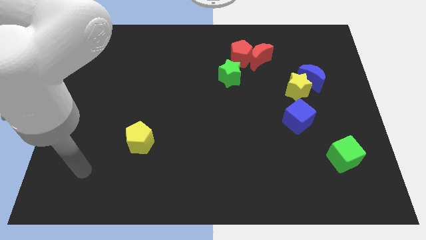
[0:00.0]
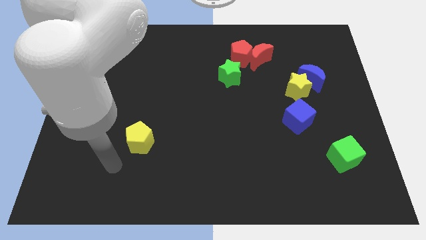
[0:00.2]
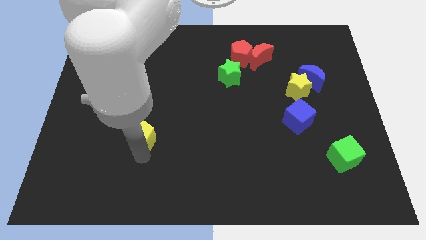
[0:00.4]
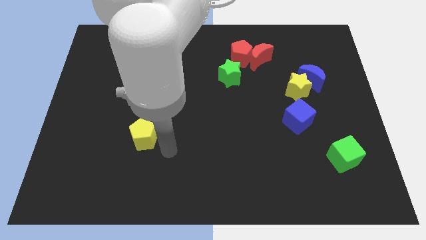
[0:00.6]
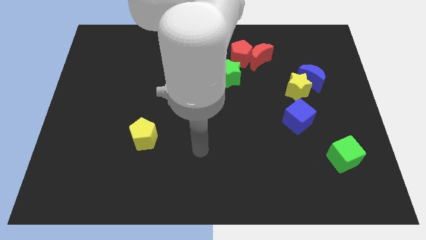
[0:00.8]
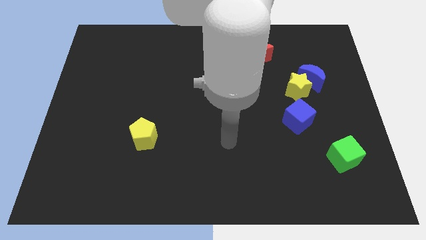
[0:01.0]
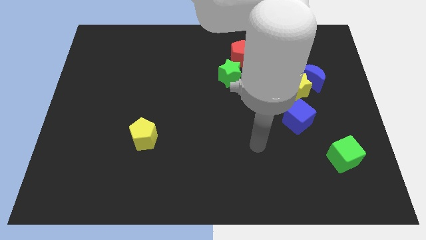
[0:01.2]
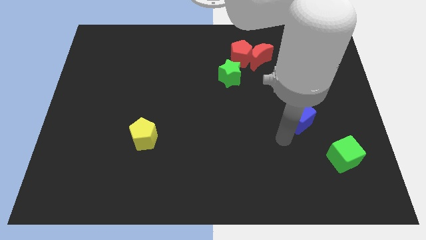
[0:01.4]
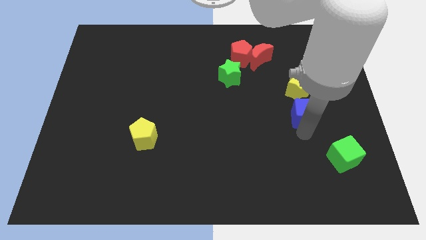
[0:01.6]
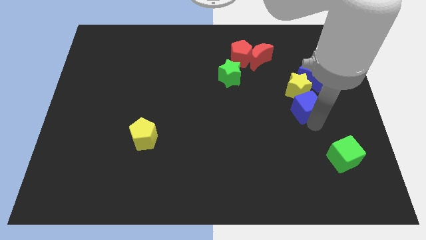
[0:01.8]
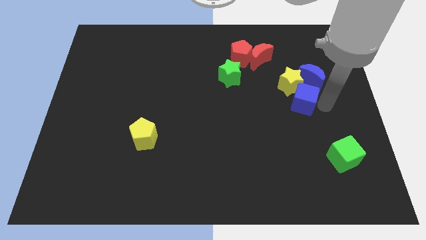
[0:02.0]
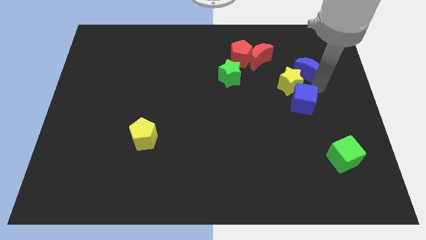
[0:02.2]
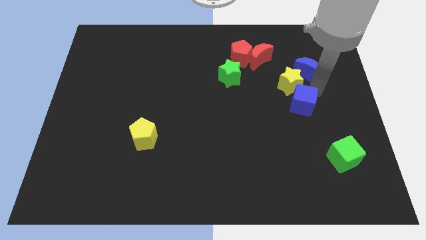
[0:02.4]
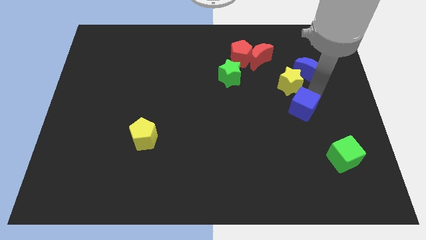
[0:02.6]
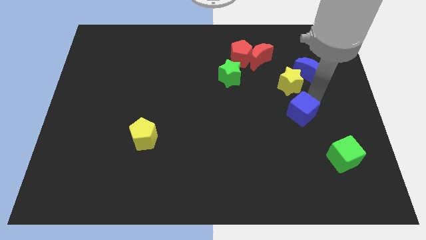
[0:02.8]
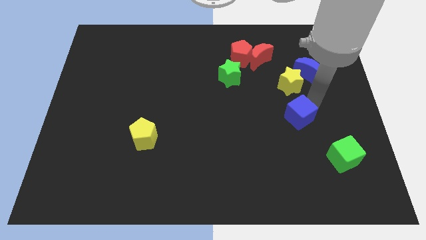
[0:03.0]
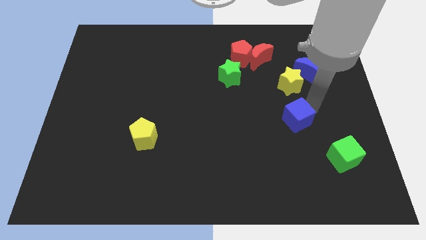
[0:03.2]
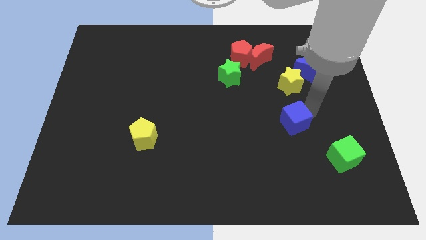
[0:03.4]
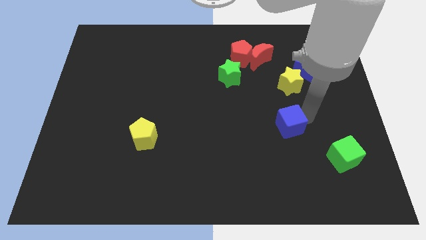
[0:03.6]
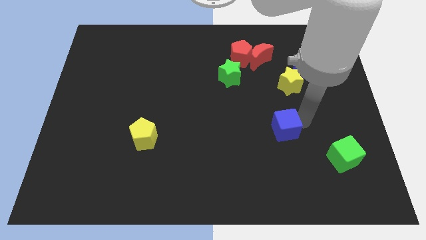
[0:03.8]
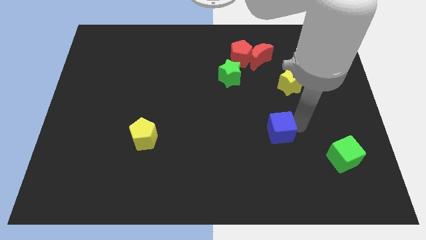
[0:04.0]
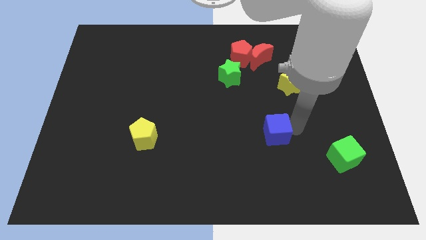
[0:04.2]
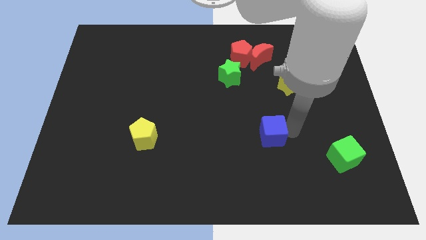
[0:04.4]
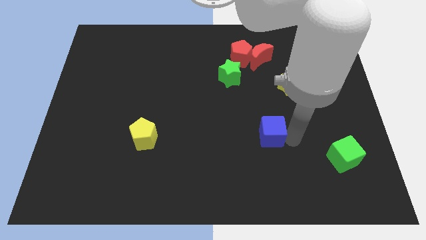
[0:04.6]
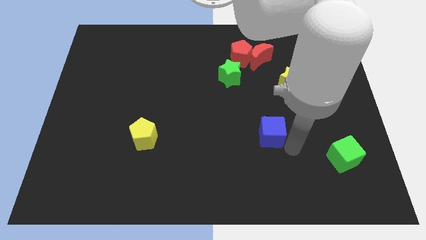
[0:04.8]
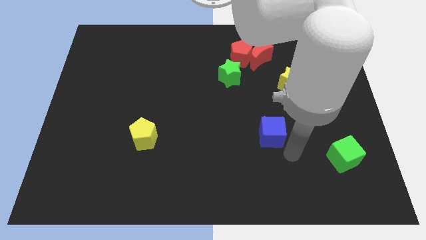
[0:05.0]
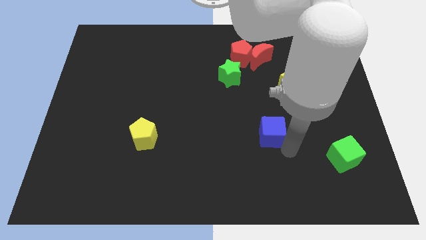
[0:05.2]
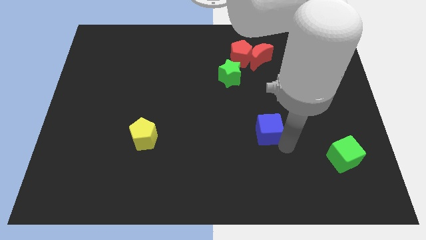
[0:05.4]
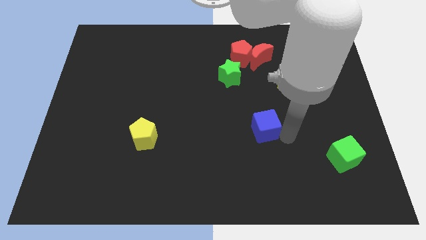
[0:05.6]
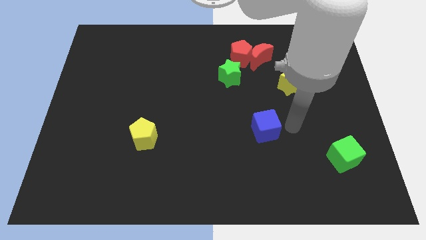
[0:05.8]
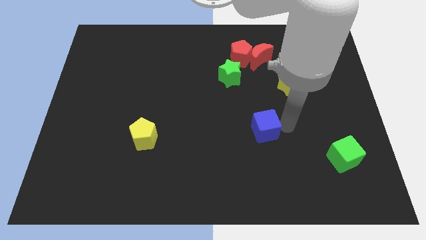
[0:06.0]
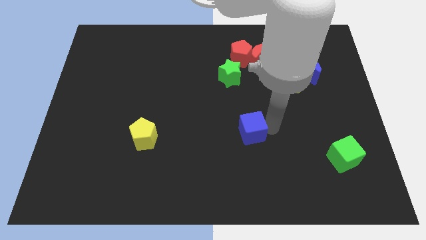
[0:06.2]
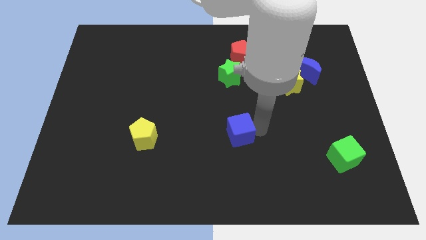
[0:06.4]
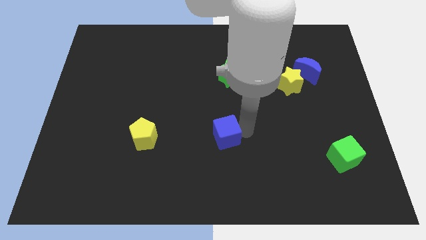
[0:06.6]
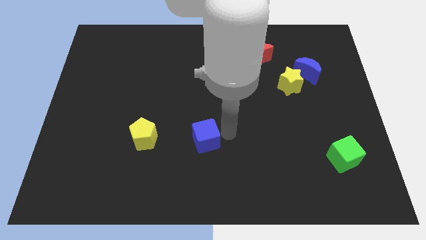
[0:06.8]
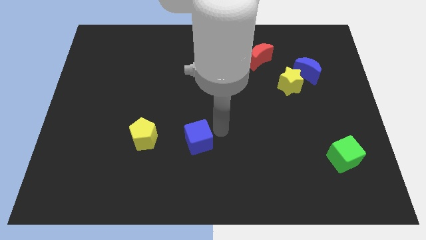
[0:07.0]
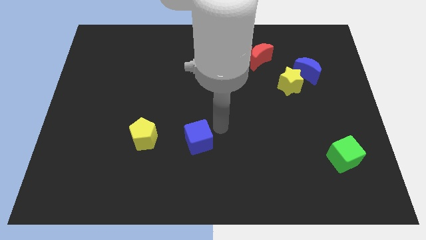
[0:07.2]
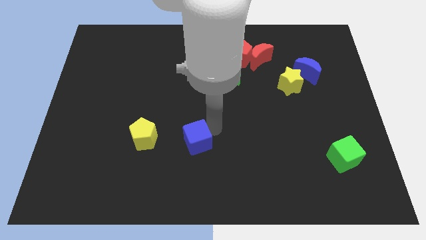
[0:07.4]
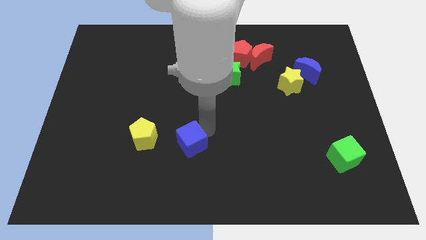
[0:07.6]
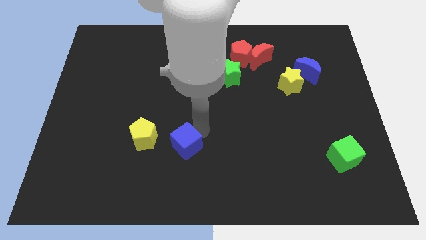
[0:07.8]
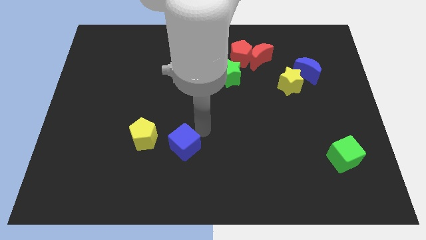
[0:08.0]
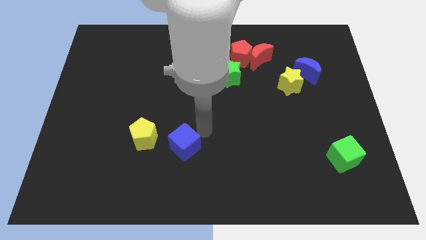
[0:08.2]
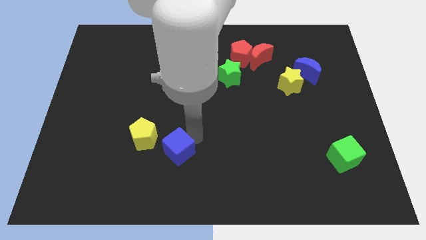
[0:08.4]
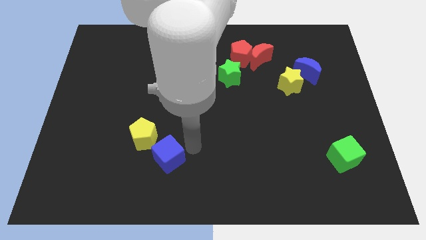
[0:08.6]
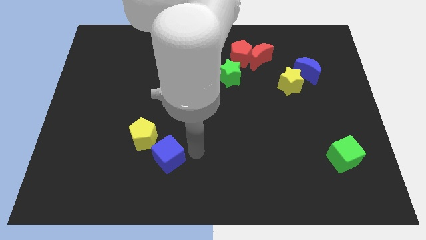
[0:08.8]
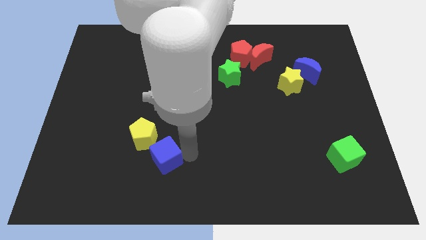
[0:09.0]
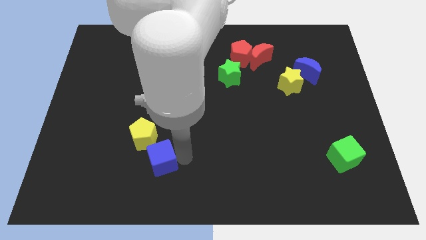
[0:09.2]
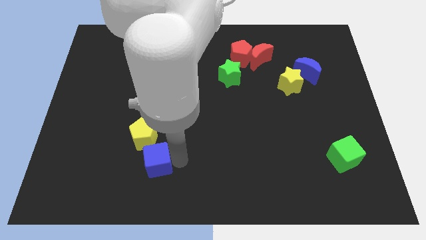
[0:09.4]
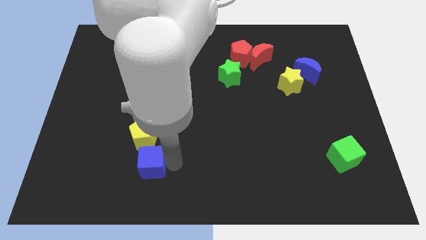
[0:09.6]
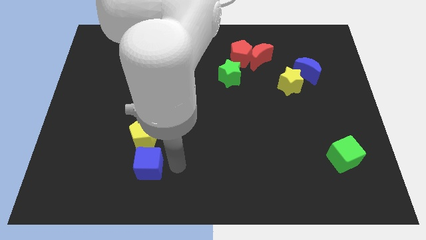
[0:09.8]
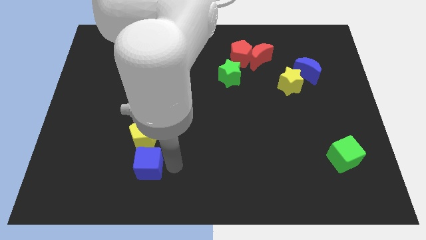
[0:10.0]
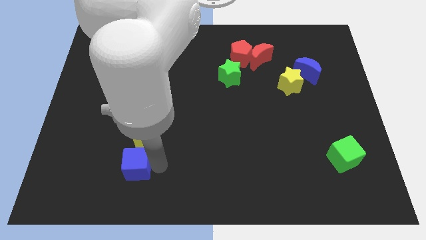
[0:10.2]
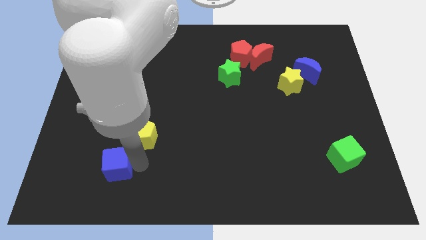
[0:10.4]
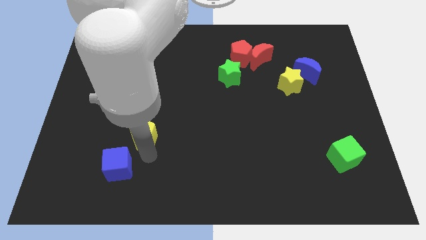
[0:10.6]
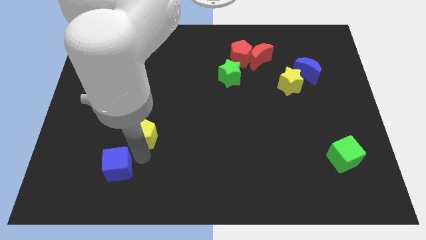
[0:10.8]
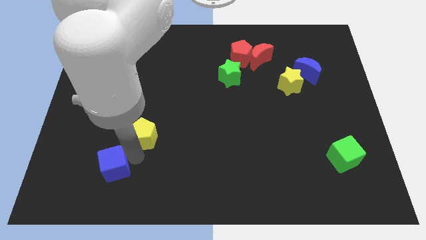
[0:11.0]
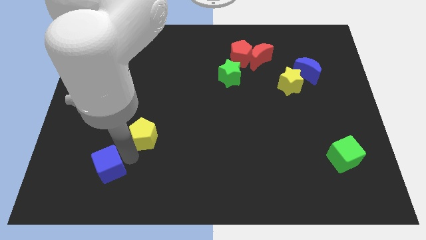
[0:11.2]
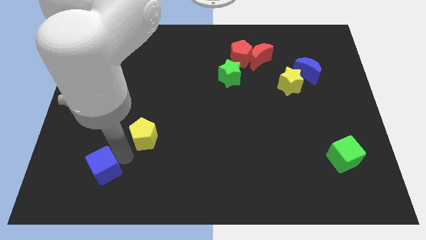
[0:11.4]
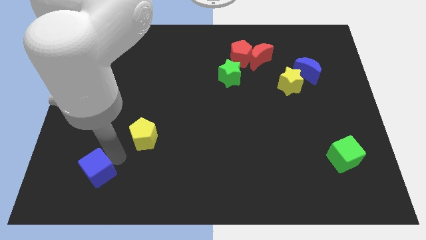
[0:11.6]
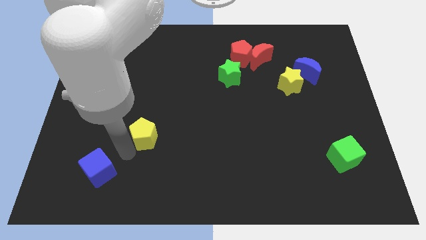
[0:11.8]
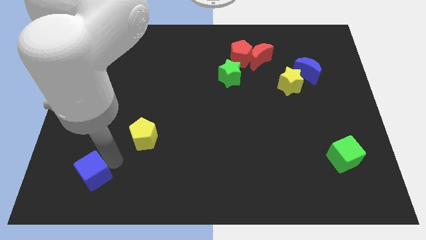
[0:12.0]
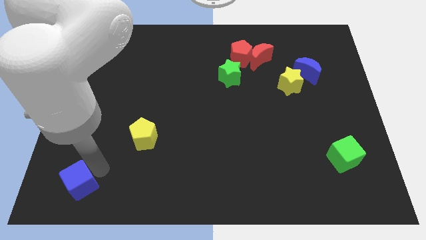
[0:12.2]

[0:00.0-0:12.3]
push the blue cube to the bottom left
